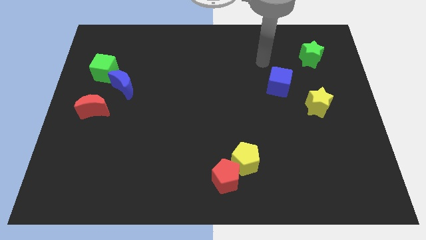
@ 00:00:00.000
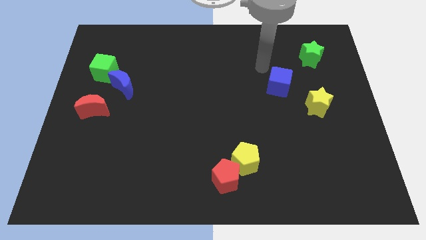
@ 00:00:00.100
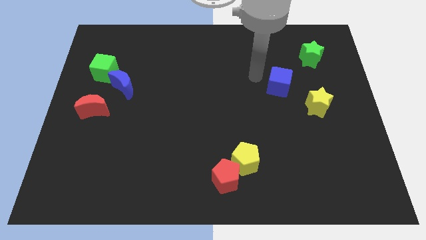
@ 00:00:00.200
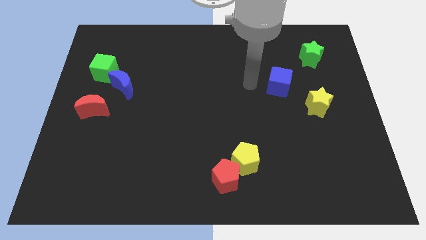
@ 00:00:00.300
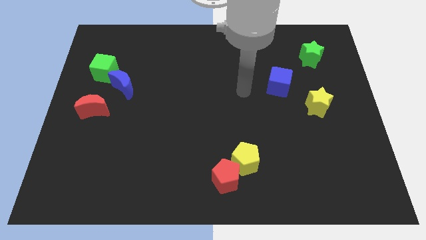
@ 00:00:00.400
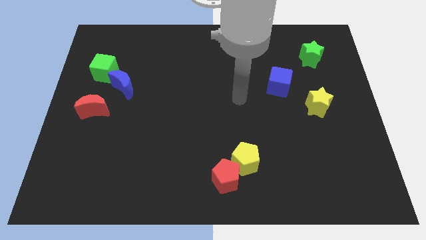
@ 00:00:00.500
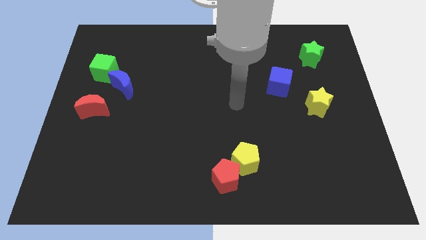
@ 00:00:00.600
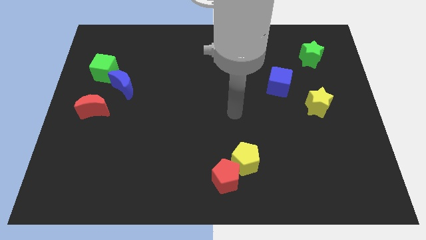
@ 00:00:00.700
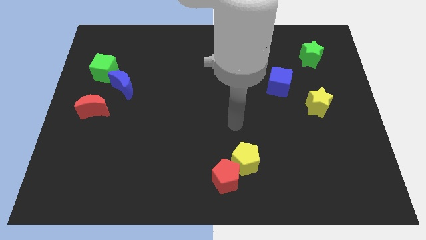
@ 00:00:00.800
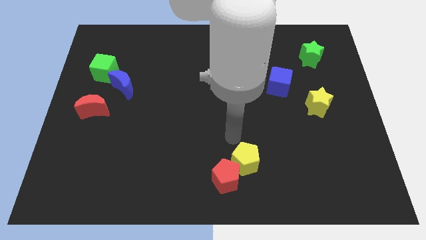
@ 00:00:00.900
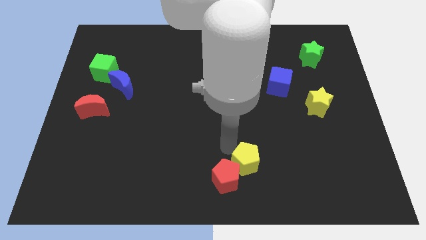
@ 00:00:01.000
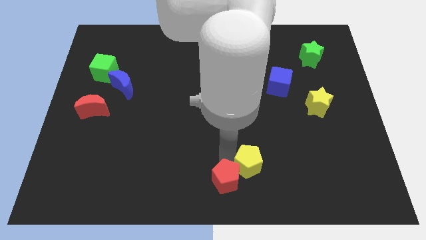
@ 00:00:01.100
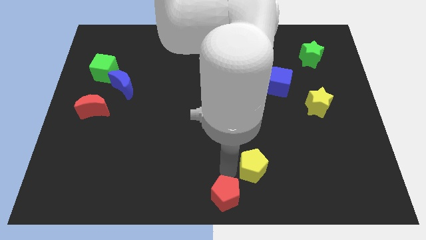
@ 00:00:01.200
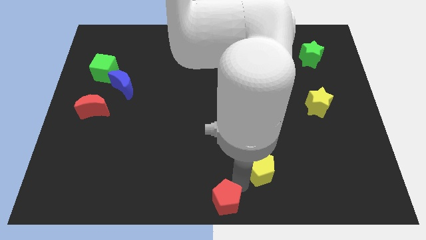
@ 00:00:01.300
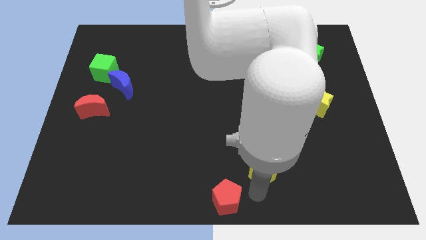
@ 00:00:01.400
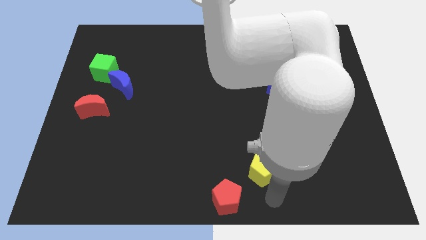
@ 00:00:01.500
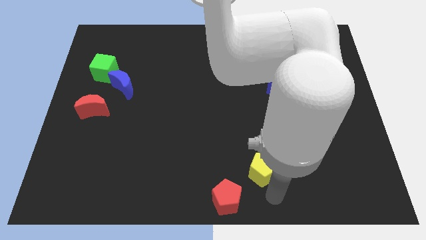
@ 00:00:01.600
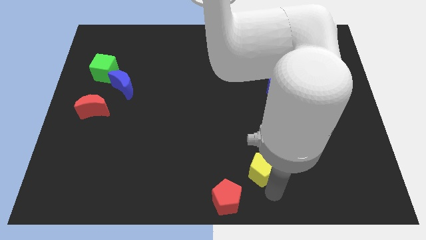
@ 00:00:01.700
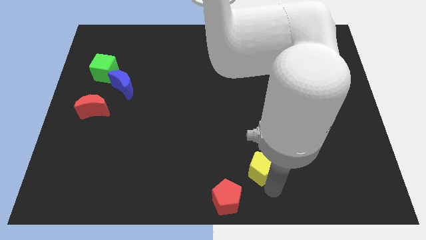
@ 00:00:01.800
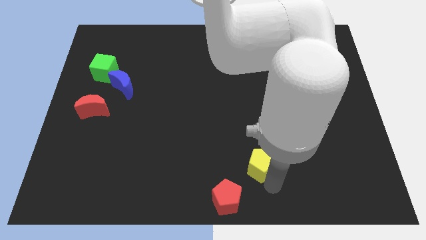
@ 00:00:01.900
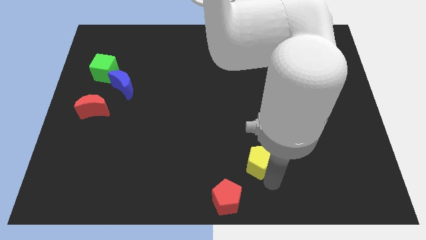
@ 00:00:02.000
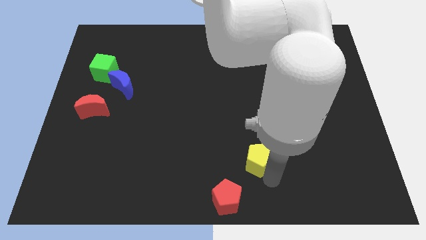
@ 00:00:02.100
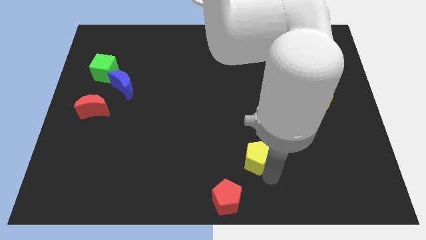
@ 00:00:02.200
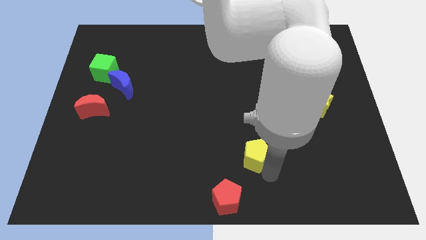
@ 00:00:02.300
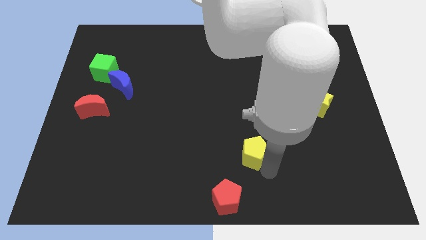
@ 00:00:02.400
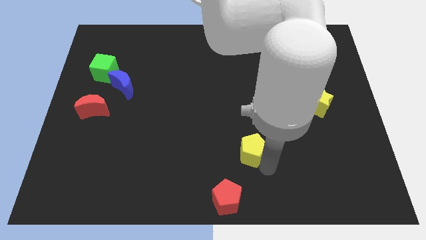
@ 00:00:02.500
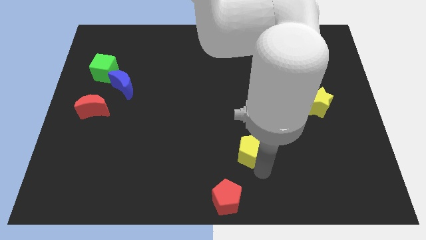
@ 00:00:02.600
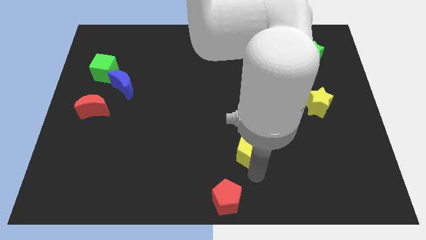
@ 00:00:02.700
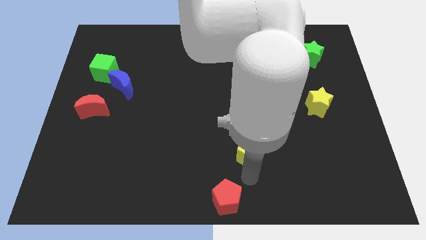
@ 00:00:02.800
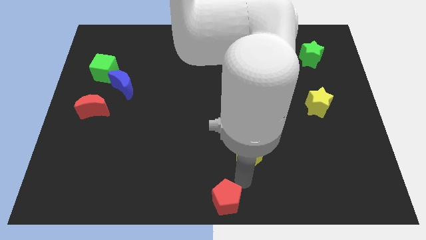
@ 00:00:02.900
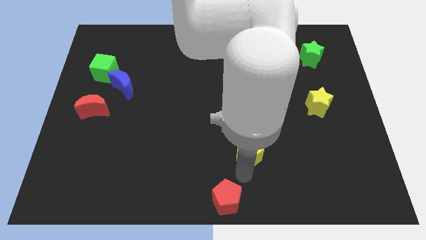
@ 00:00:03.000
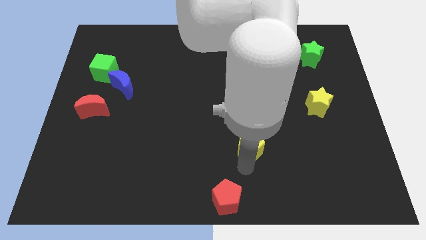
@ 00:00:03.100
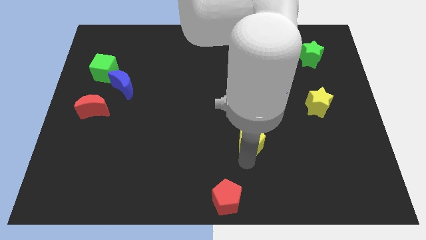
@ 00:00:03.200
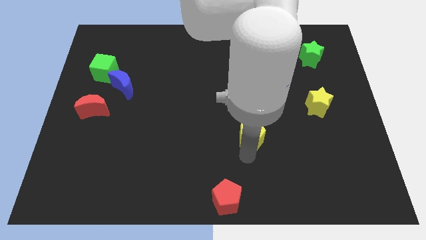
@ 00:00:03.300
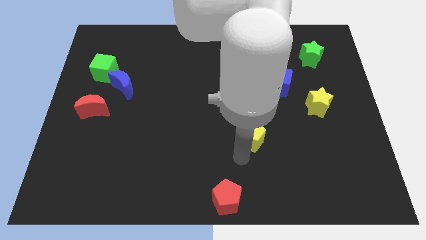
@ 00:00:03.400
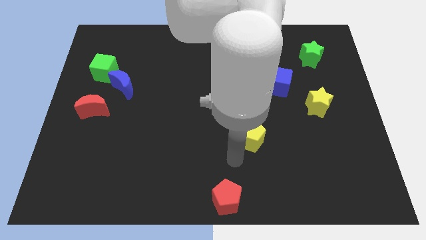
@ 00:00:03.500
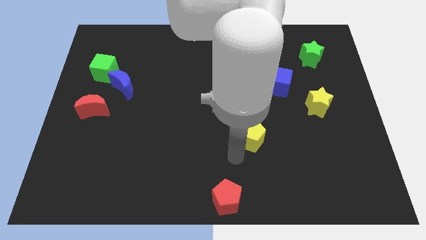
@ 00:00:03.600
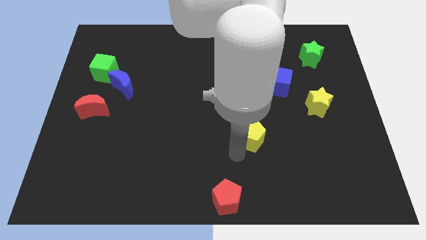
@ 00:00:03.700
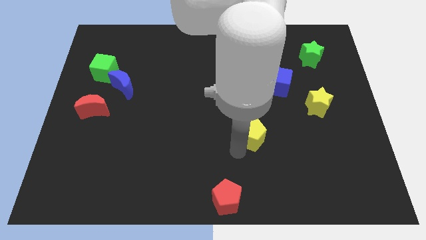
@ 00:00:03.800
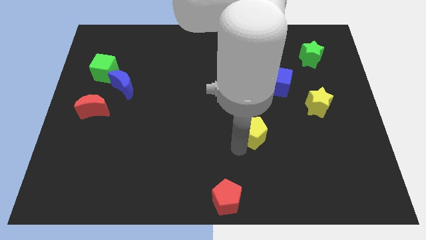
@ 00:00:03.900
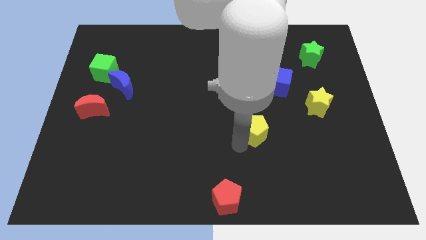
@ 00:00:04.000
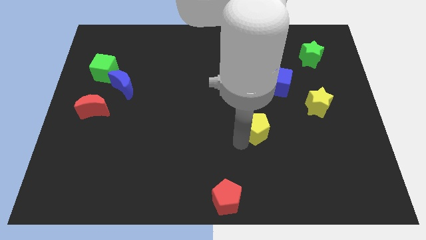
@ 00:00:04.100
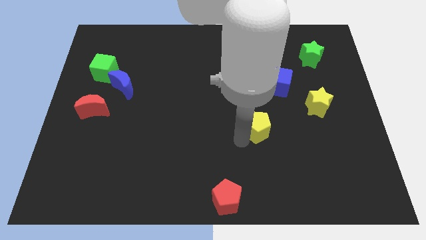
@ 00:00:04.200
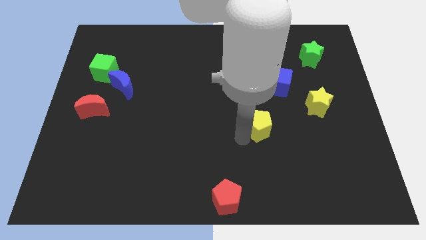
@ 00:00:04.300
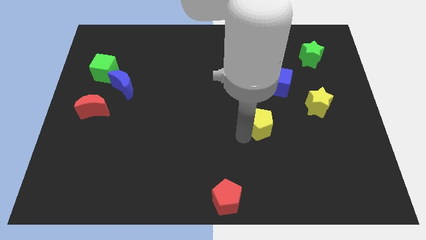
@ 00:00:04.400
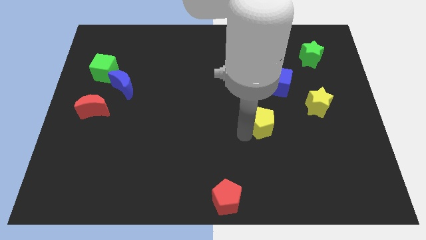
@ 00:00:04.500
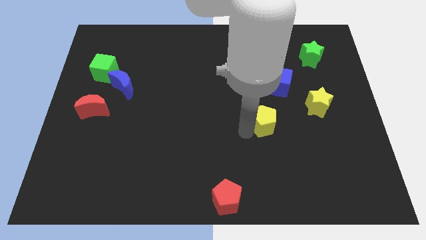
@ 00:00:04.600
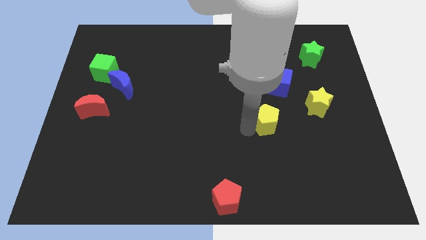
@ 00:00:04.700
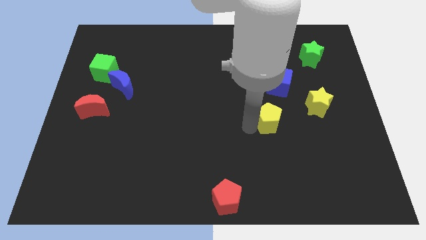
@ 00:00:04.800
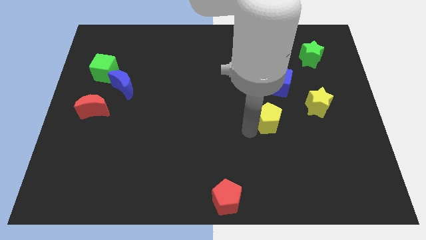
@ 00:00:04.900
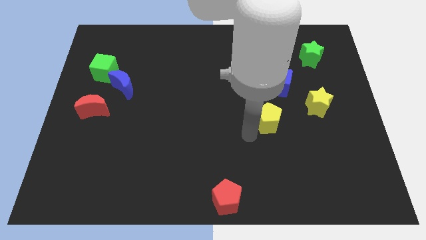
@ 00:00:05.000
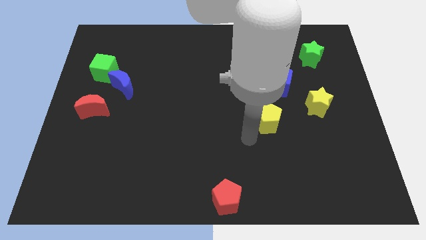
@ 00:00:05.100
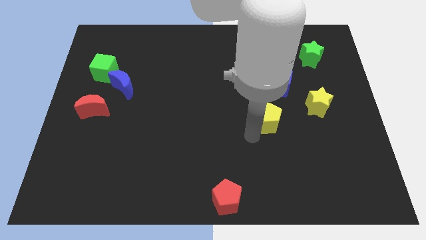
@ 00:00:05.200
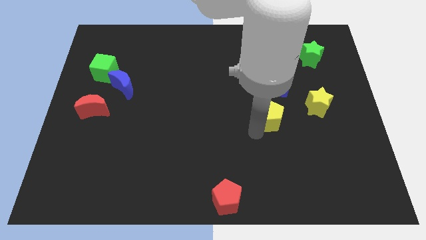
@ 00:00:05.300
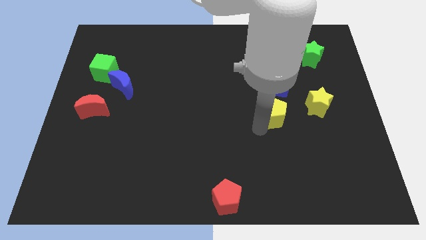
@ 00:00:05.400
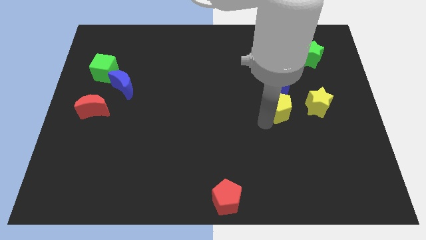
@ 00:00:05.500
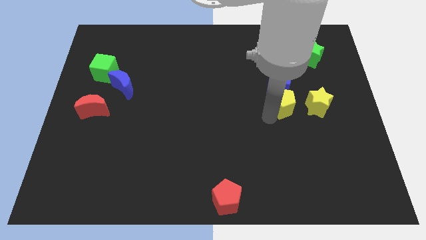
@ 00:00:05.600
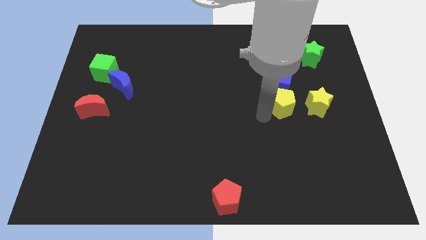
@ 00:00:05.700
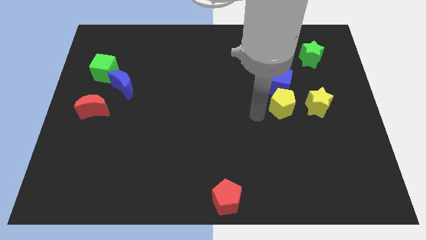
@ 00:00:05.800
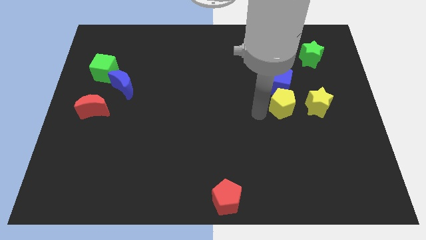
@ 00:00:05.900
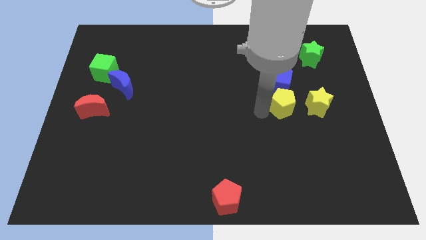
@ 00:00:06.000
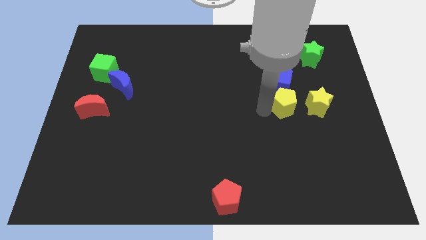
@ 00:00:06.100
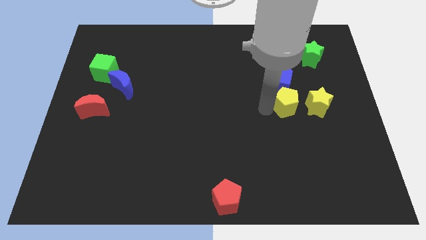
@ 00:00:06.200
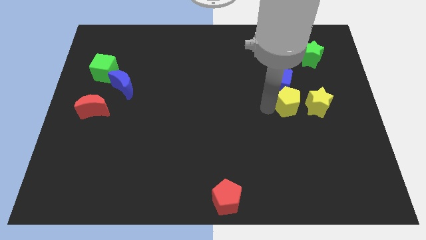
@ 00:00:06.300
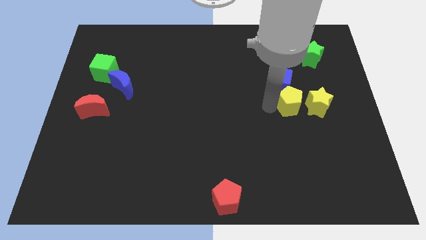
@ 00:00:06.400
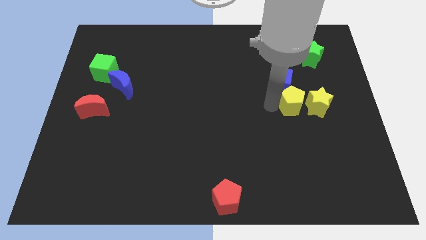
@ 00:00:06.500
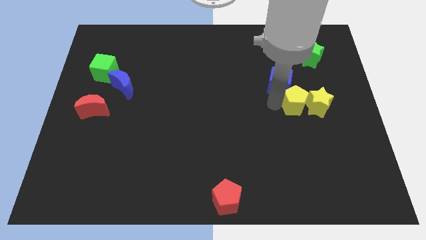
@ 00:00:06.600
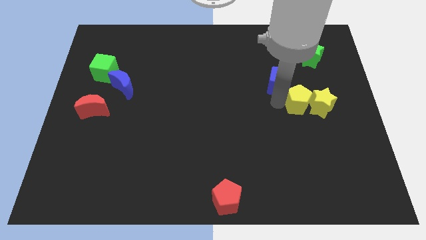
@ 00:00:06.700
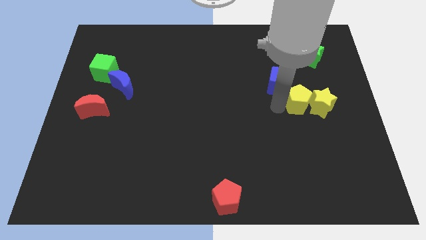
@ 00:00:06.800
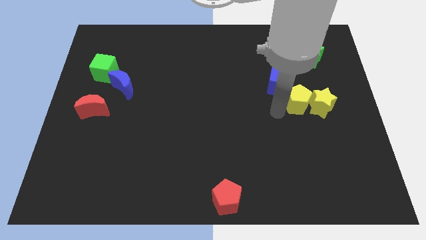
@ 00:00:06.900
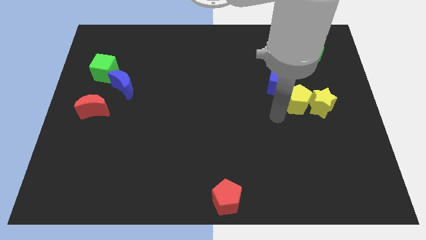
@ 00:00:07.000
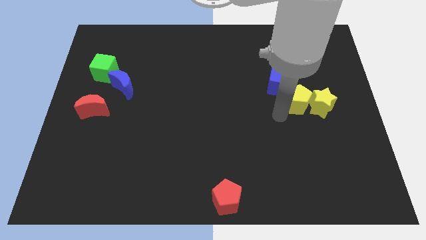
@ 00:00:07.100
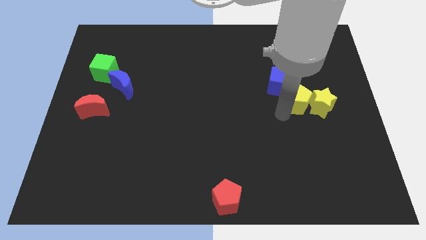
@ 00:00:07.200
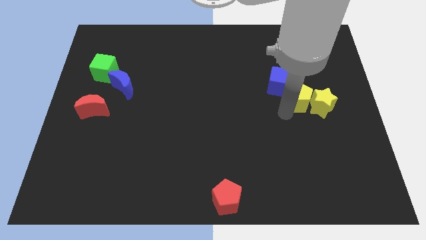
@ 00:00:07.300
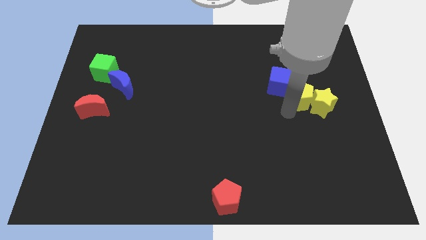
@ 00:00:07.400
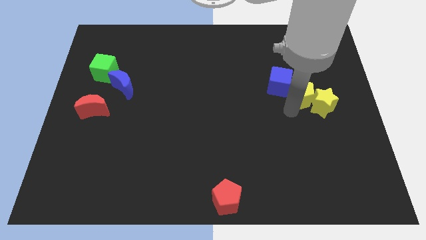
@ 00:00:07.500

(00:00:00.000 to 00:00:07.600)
put the yellow pentagon to the bottom of the green star
